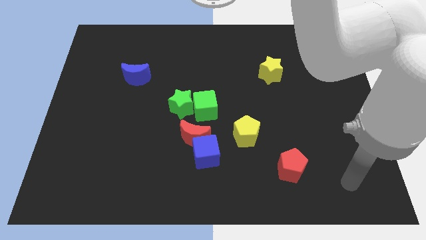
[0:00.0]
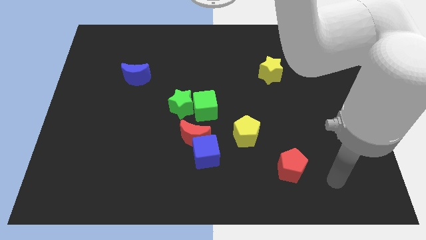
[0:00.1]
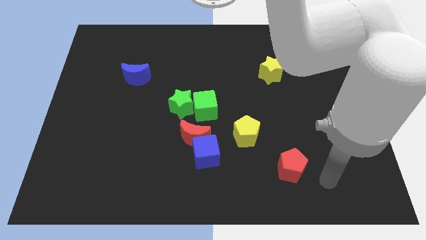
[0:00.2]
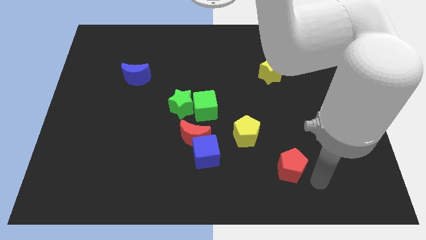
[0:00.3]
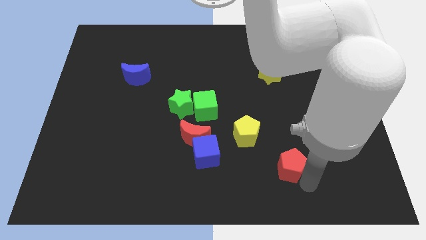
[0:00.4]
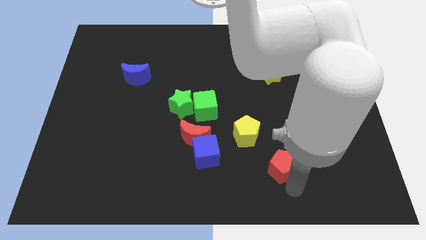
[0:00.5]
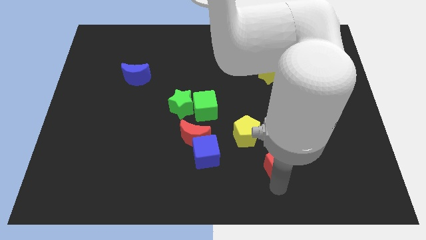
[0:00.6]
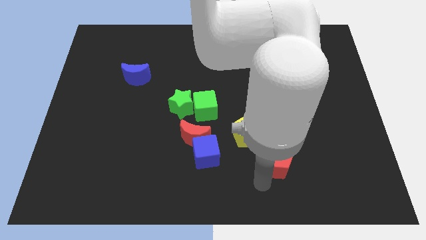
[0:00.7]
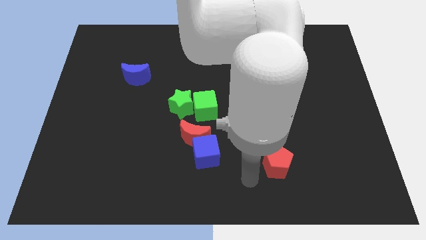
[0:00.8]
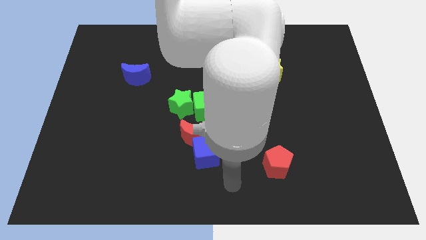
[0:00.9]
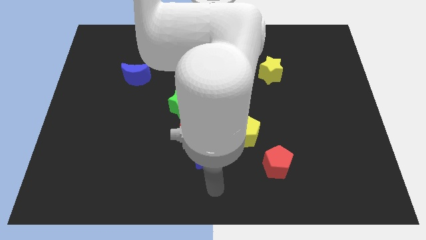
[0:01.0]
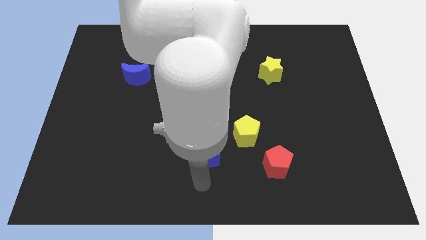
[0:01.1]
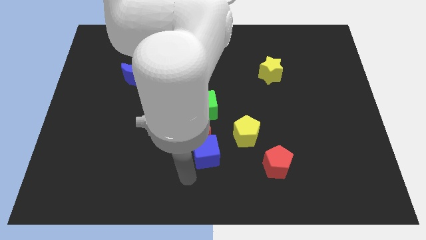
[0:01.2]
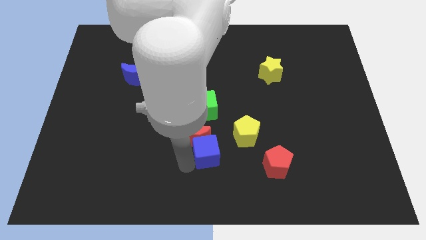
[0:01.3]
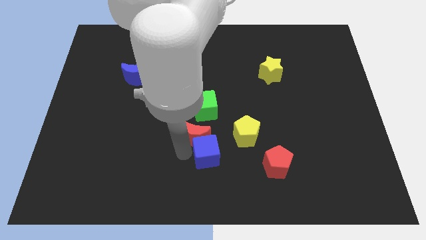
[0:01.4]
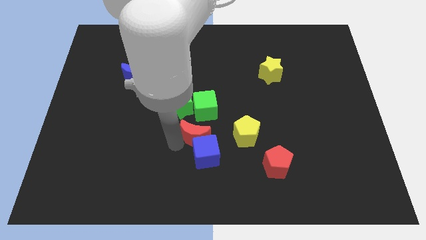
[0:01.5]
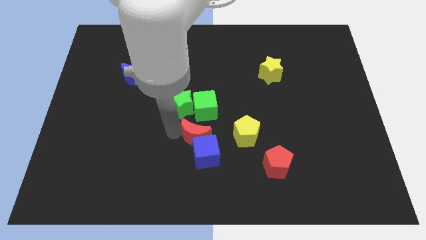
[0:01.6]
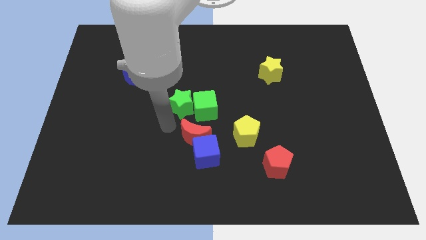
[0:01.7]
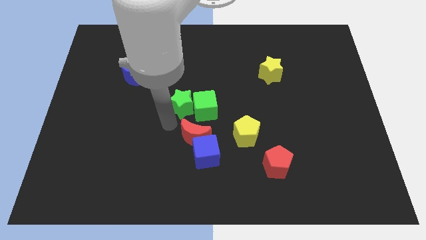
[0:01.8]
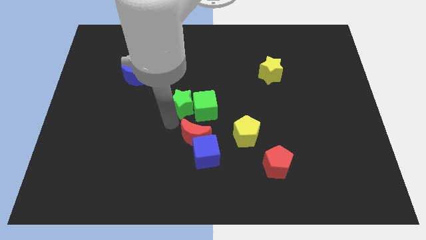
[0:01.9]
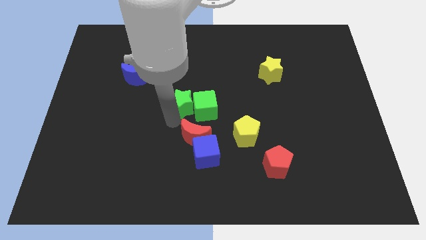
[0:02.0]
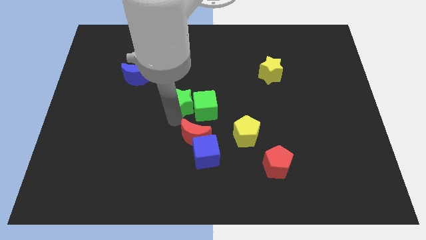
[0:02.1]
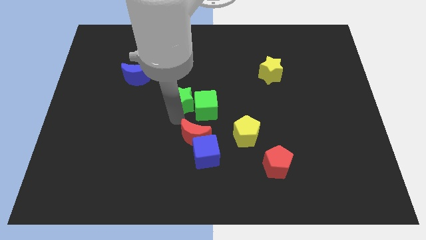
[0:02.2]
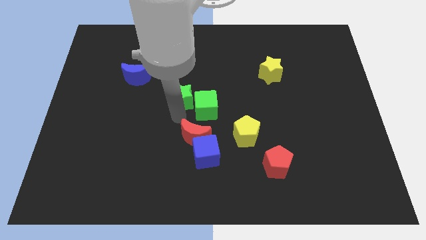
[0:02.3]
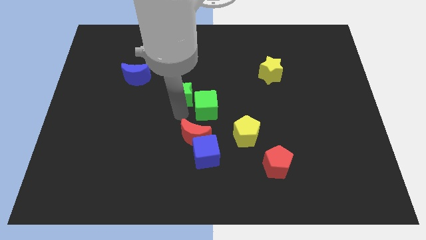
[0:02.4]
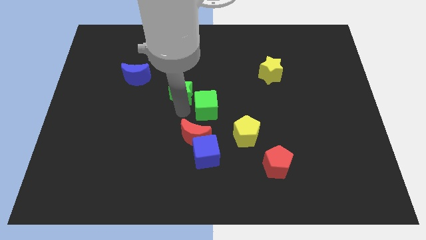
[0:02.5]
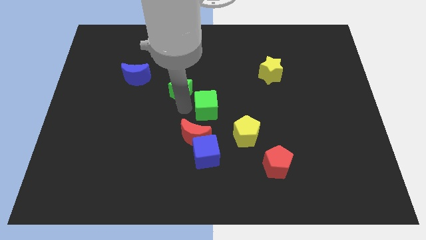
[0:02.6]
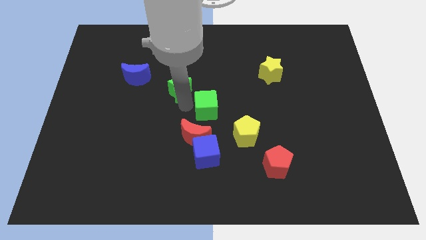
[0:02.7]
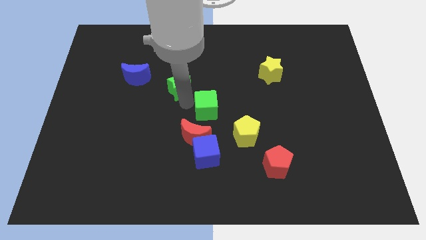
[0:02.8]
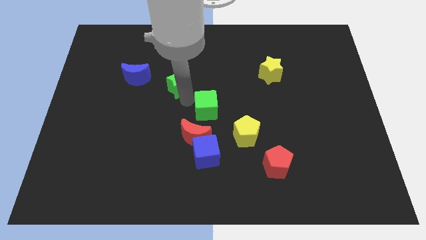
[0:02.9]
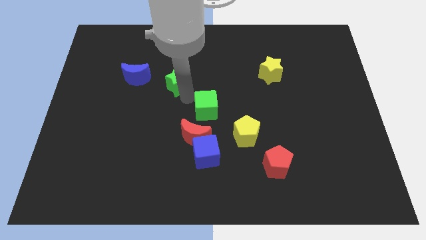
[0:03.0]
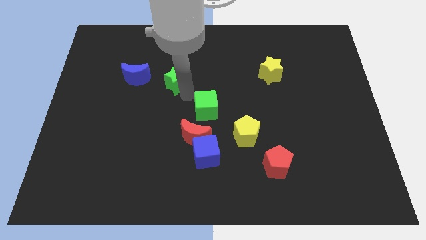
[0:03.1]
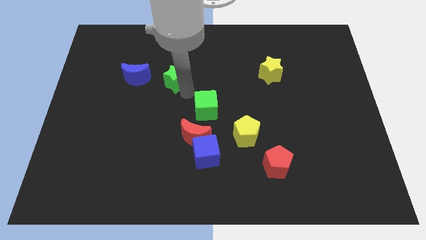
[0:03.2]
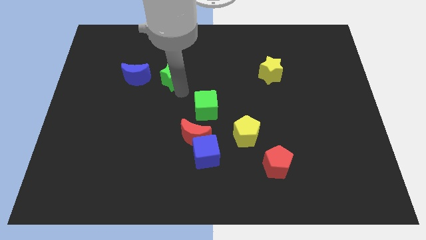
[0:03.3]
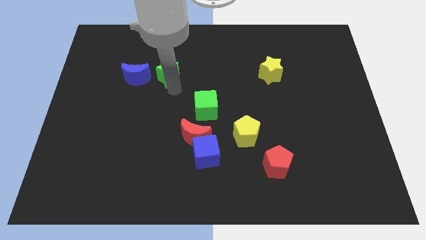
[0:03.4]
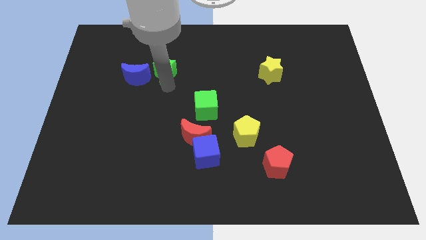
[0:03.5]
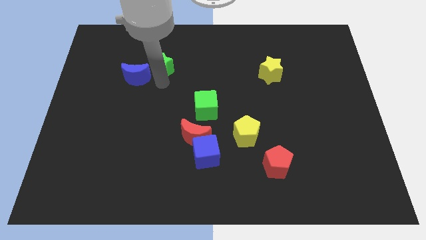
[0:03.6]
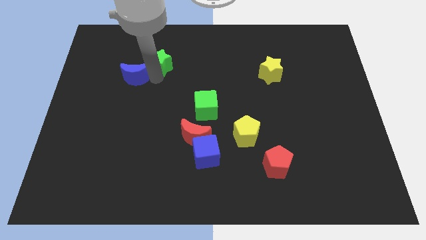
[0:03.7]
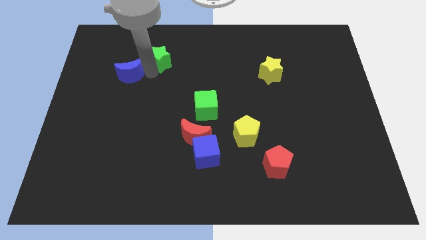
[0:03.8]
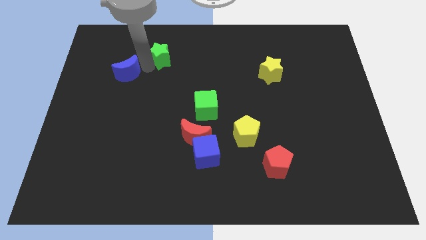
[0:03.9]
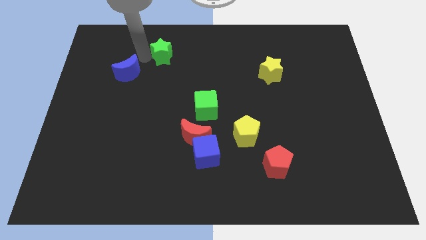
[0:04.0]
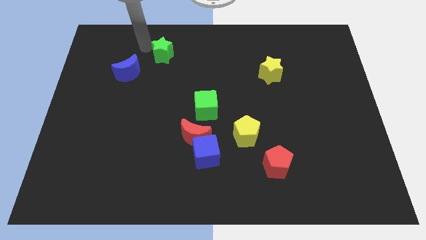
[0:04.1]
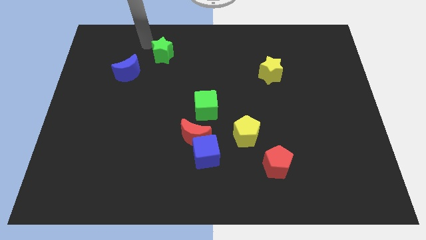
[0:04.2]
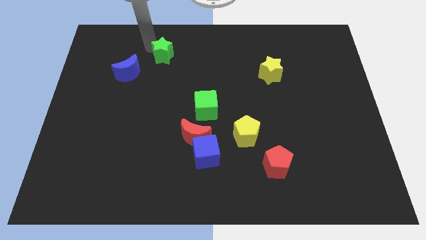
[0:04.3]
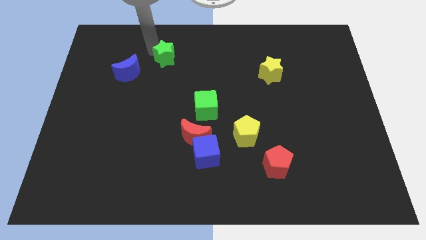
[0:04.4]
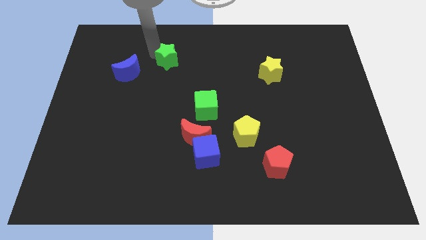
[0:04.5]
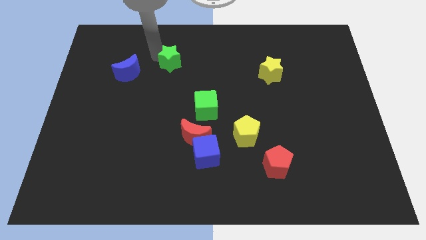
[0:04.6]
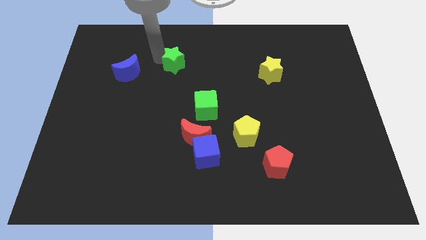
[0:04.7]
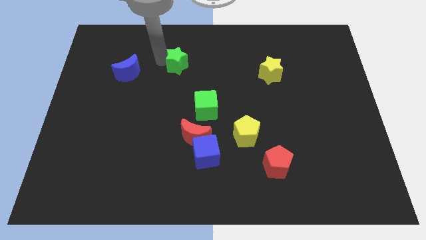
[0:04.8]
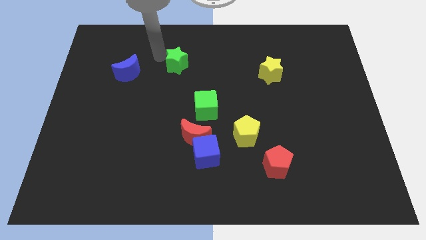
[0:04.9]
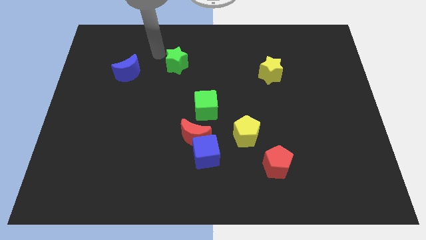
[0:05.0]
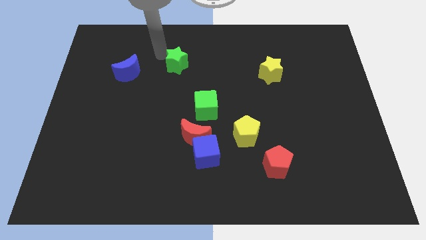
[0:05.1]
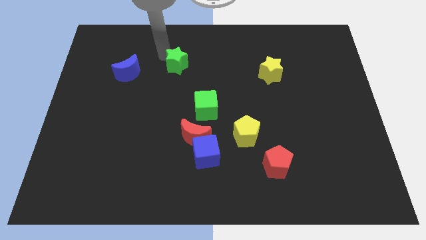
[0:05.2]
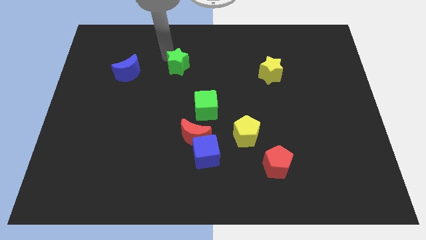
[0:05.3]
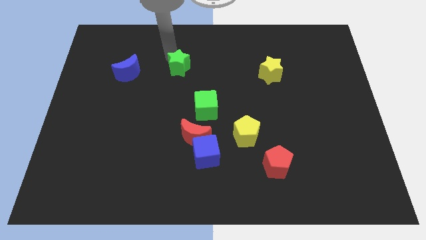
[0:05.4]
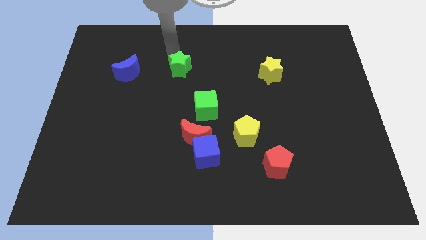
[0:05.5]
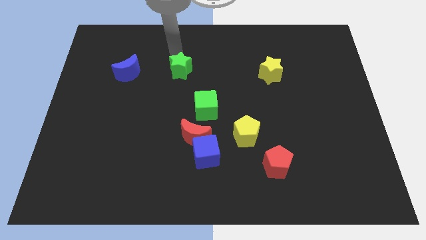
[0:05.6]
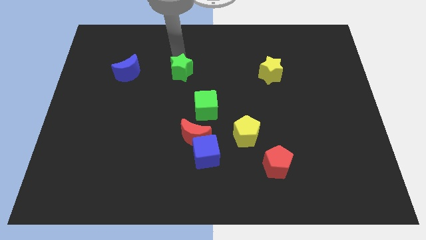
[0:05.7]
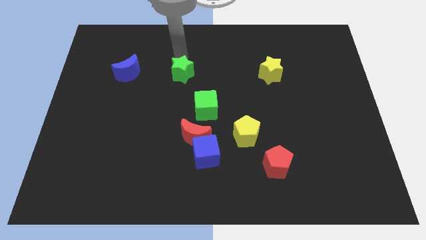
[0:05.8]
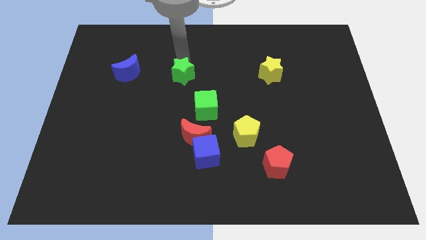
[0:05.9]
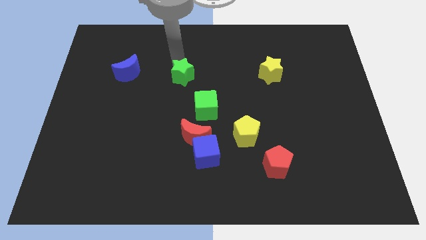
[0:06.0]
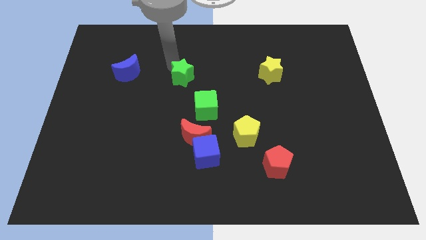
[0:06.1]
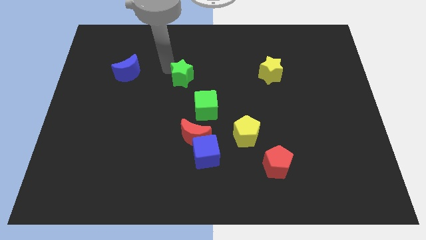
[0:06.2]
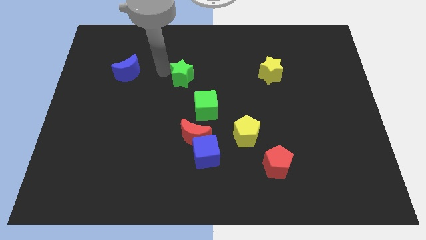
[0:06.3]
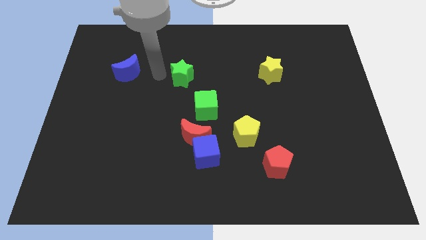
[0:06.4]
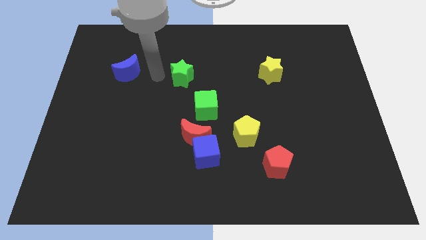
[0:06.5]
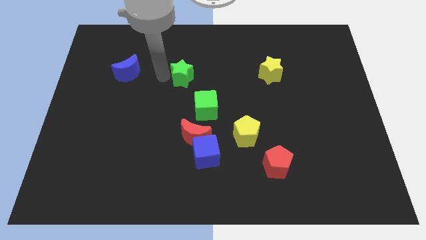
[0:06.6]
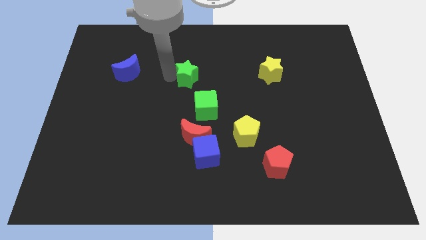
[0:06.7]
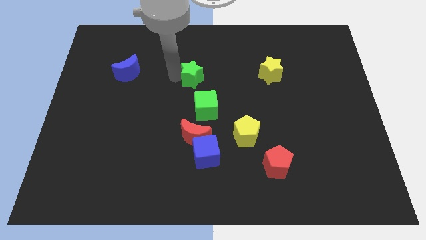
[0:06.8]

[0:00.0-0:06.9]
slide the green star up and then right slightly

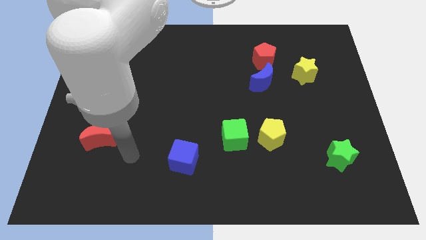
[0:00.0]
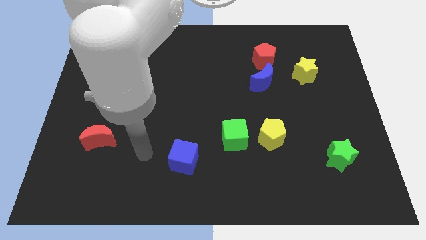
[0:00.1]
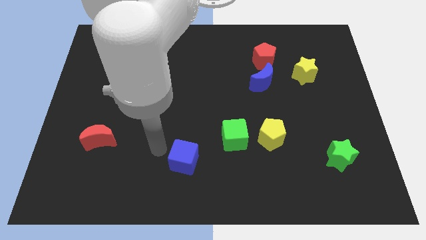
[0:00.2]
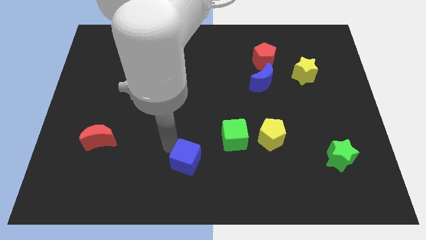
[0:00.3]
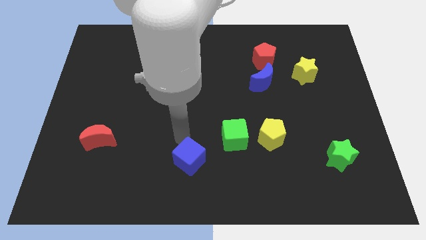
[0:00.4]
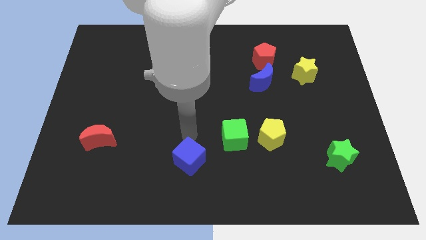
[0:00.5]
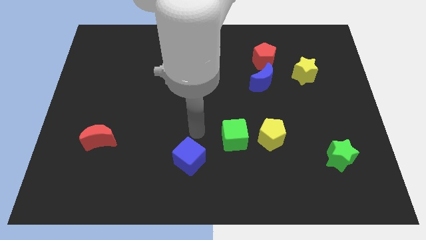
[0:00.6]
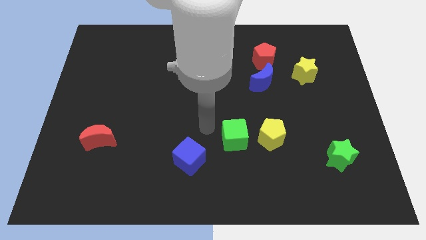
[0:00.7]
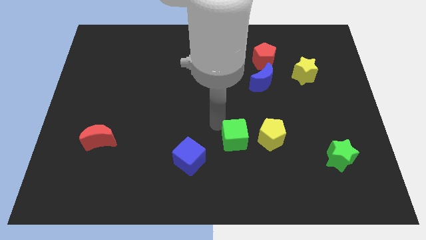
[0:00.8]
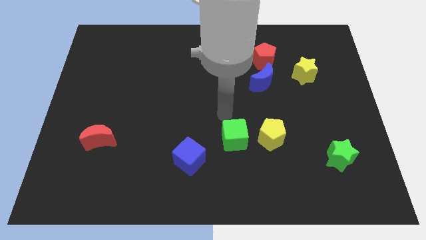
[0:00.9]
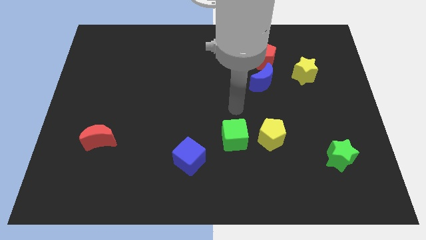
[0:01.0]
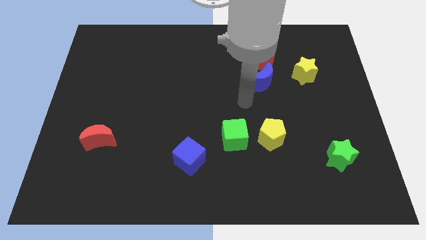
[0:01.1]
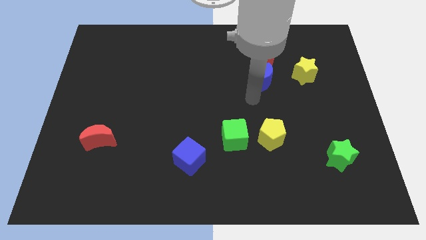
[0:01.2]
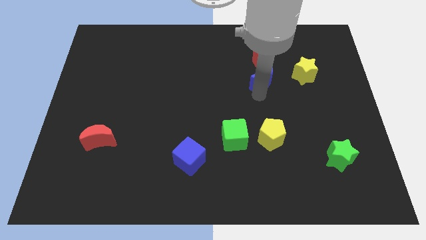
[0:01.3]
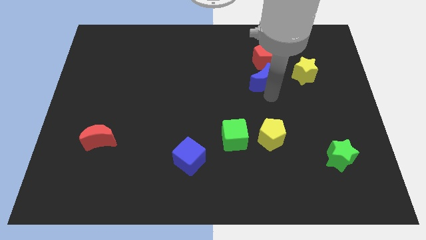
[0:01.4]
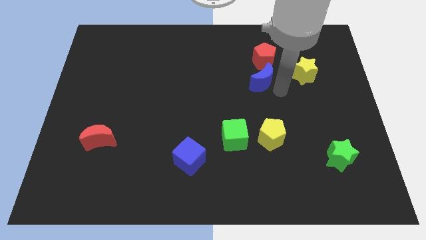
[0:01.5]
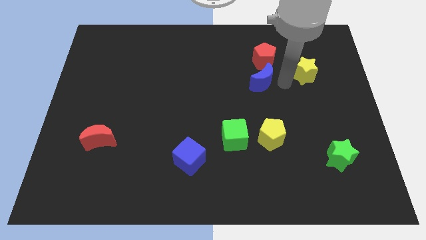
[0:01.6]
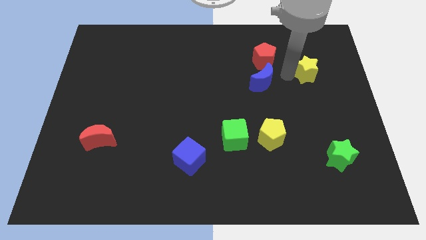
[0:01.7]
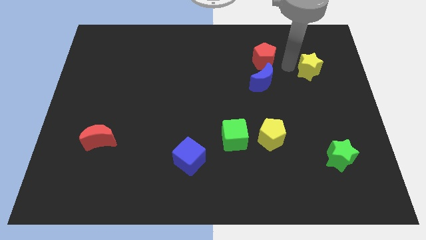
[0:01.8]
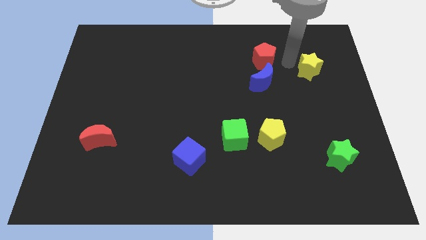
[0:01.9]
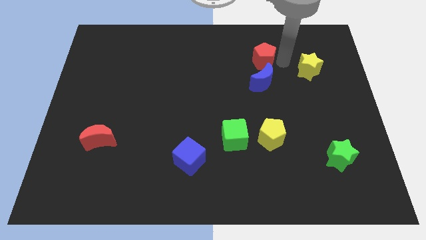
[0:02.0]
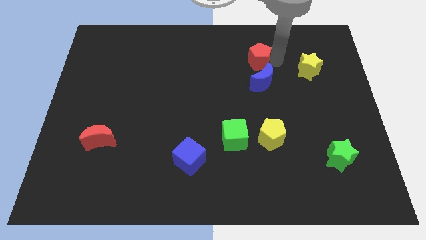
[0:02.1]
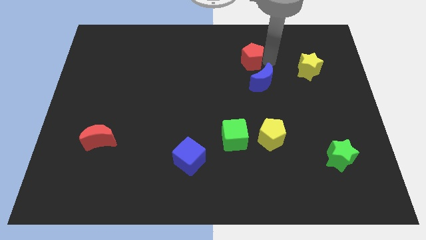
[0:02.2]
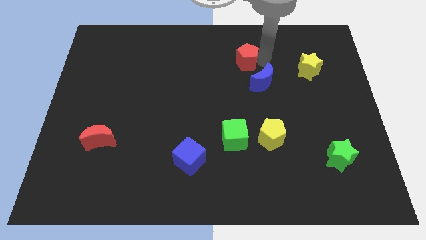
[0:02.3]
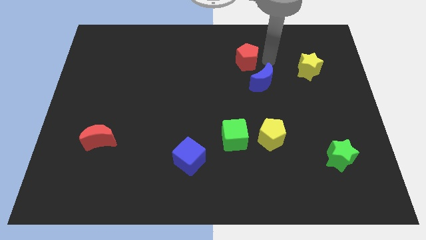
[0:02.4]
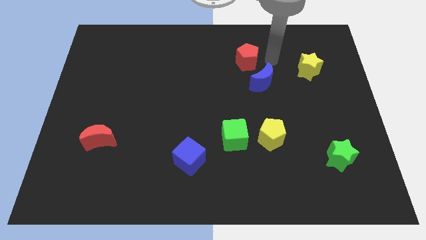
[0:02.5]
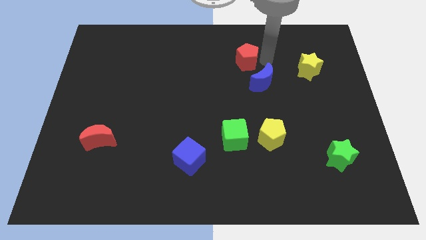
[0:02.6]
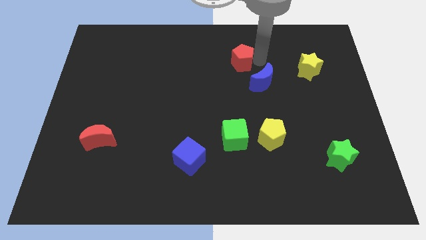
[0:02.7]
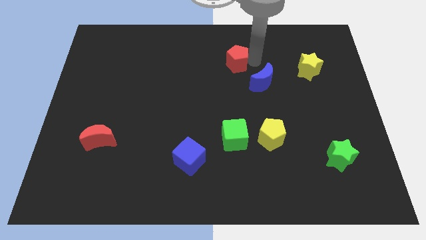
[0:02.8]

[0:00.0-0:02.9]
slightly move the red pentagon left
